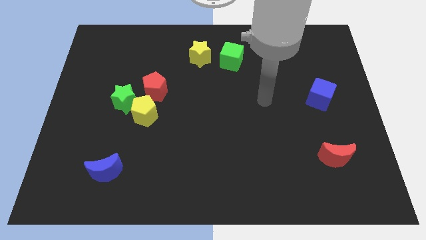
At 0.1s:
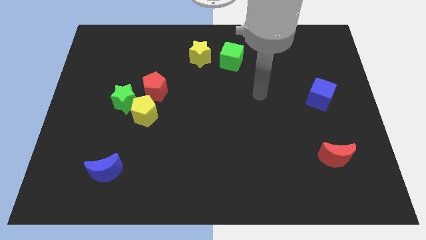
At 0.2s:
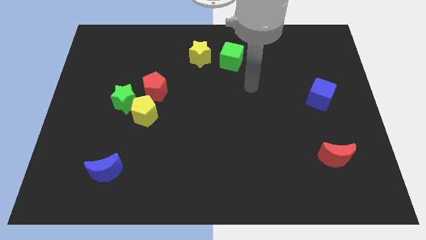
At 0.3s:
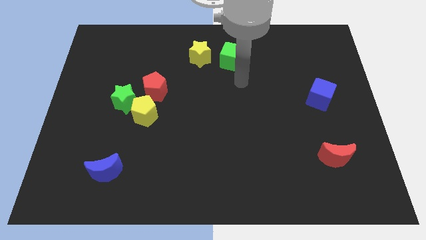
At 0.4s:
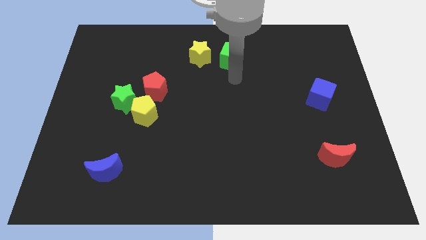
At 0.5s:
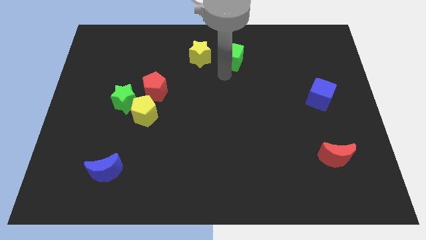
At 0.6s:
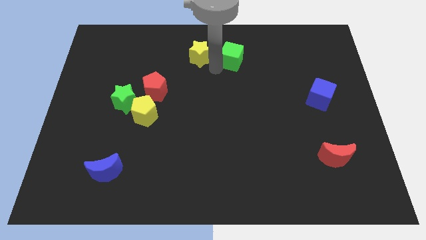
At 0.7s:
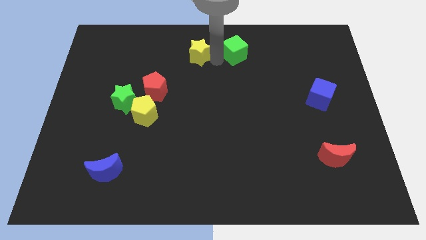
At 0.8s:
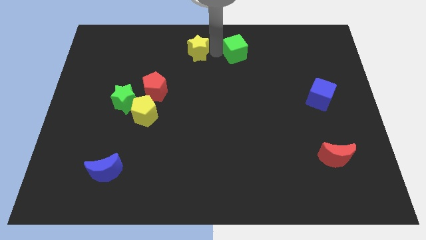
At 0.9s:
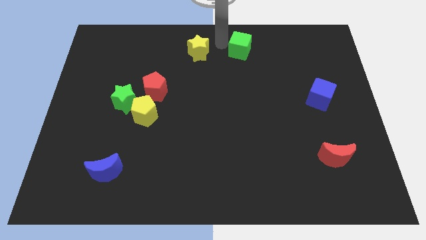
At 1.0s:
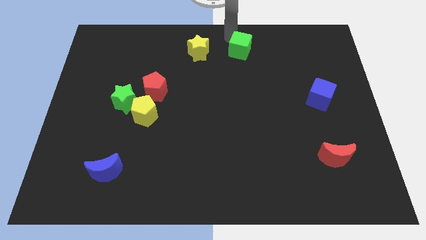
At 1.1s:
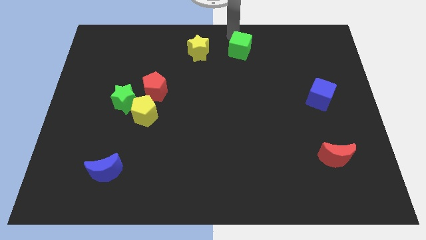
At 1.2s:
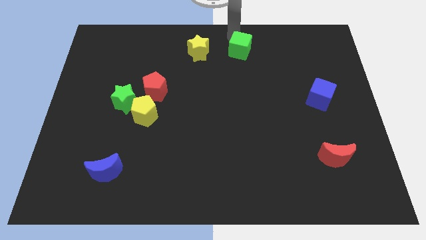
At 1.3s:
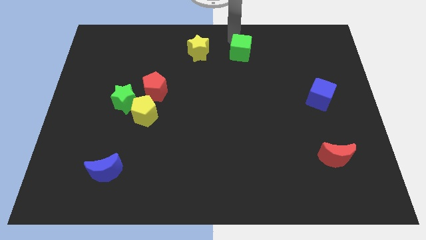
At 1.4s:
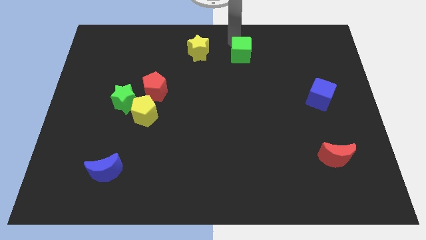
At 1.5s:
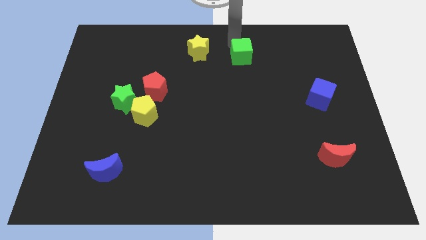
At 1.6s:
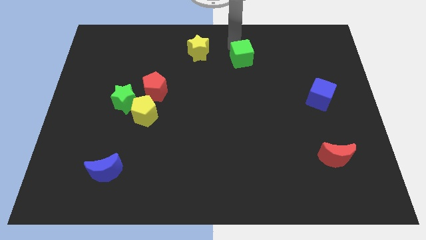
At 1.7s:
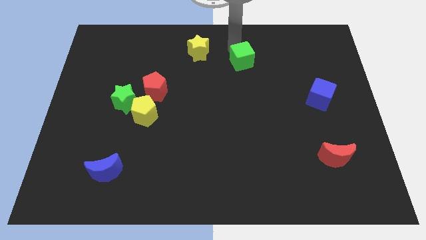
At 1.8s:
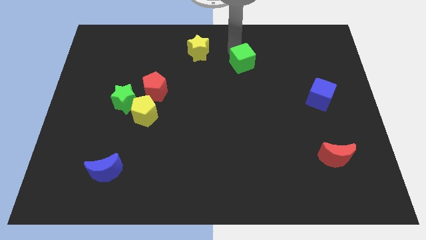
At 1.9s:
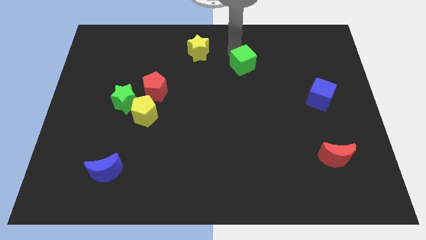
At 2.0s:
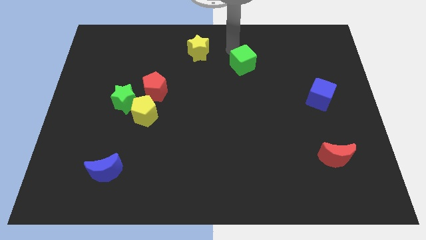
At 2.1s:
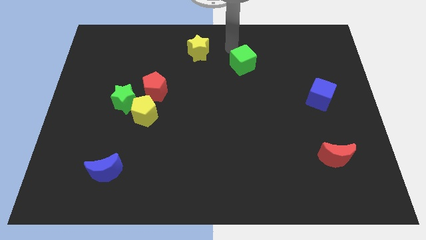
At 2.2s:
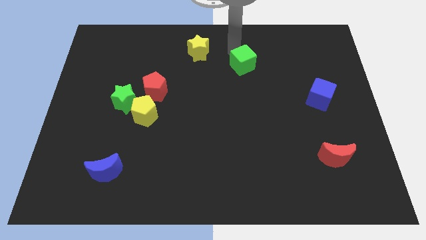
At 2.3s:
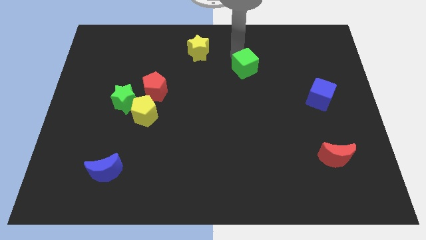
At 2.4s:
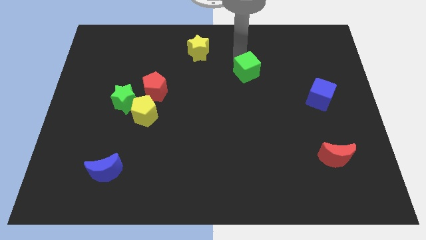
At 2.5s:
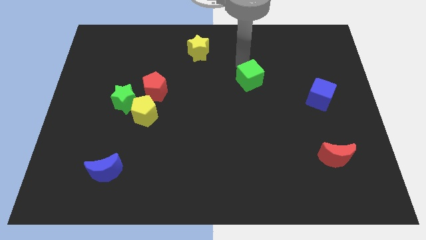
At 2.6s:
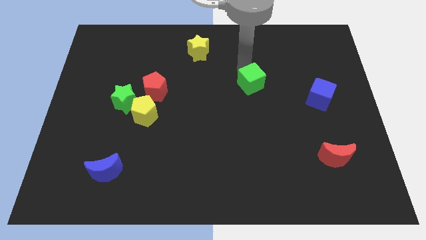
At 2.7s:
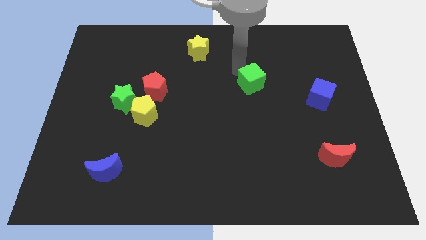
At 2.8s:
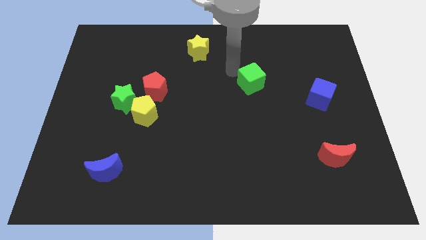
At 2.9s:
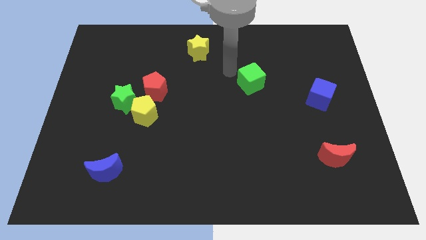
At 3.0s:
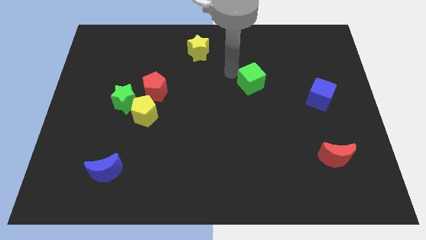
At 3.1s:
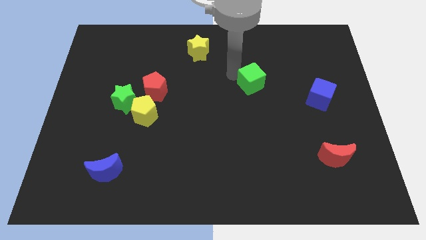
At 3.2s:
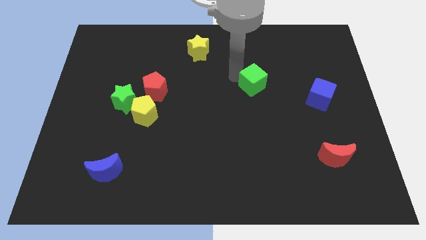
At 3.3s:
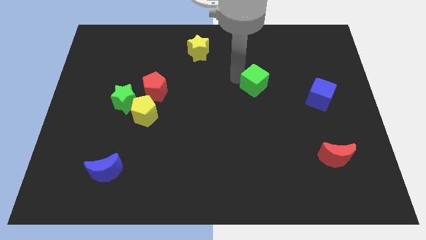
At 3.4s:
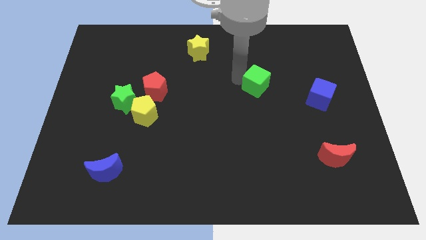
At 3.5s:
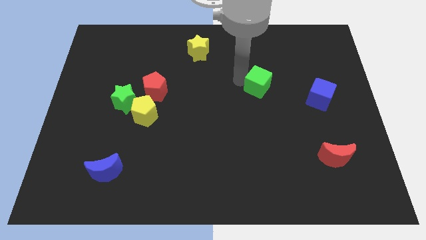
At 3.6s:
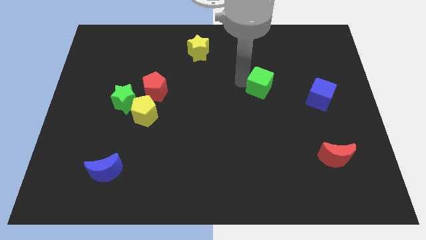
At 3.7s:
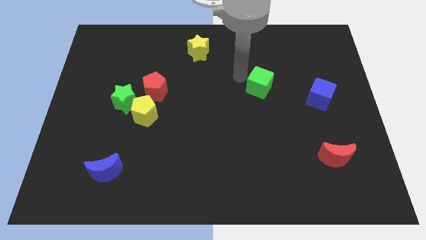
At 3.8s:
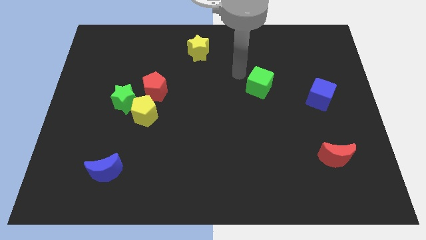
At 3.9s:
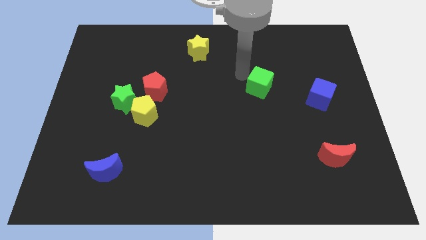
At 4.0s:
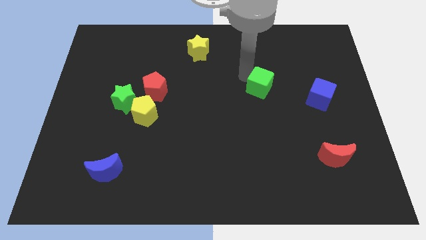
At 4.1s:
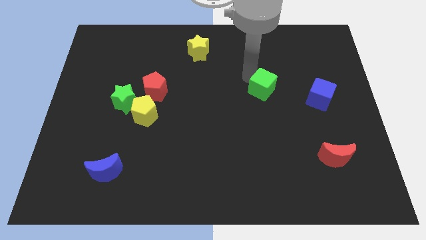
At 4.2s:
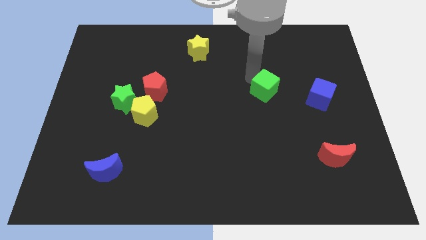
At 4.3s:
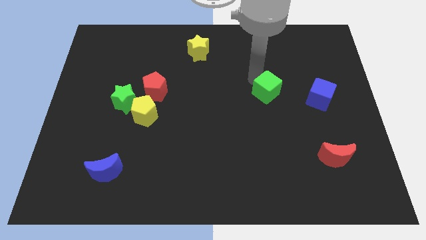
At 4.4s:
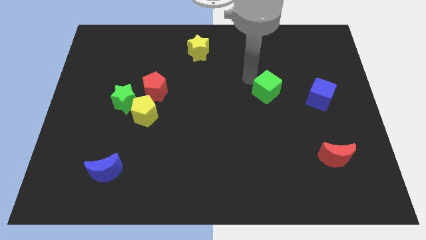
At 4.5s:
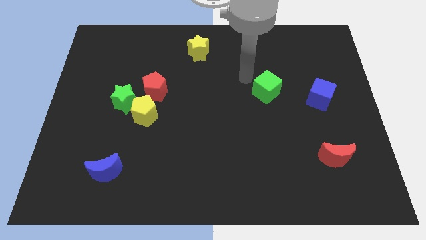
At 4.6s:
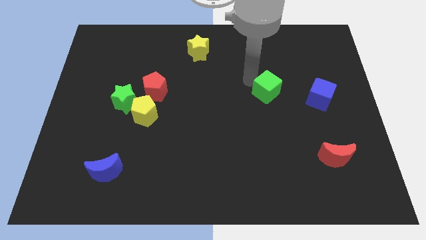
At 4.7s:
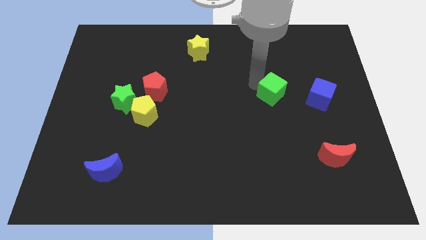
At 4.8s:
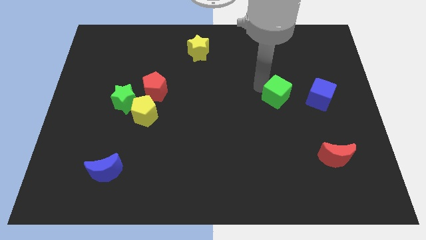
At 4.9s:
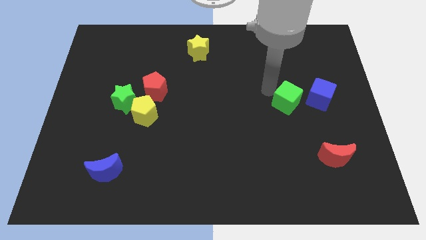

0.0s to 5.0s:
put the green cube diagonally down and to the left of the blue cube

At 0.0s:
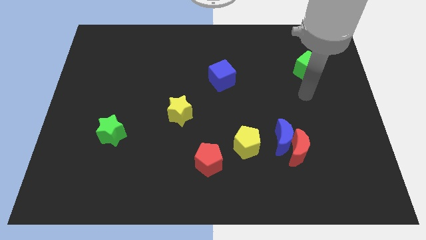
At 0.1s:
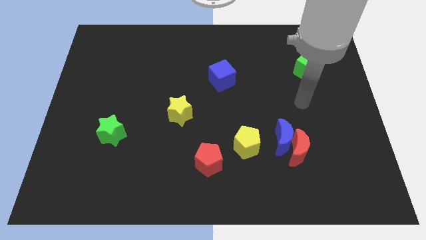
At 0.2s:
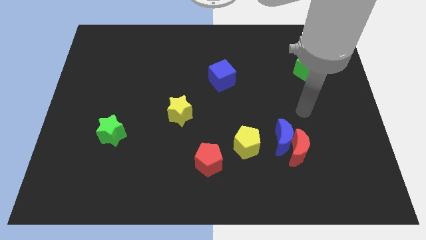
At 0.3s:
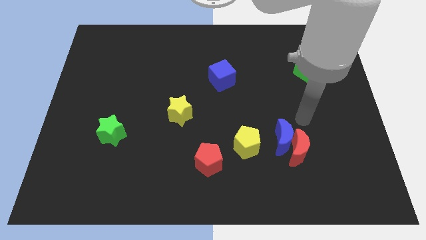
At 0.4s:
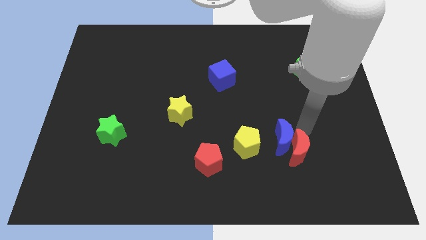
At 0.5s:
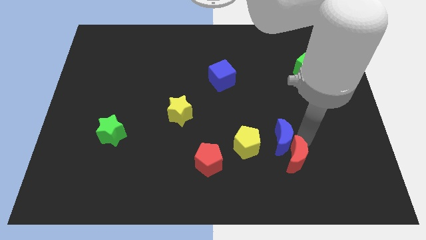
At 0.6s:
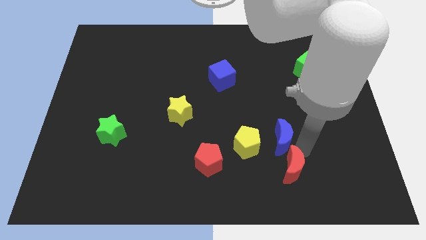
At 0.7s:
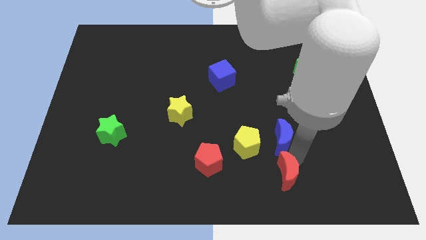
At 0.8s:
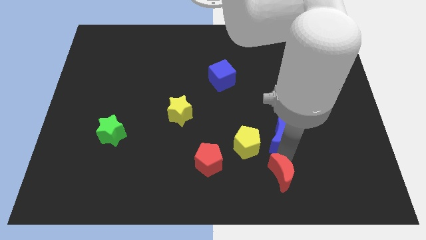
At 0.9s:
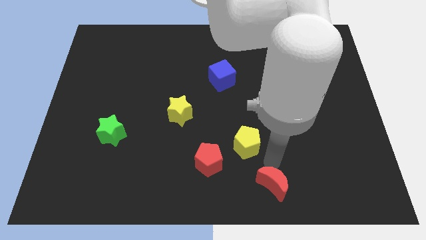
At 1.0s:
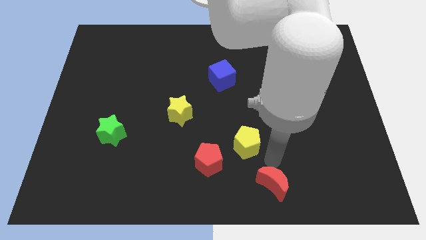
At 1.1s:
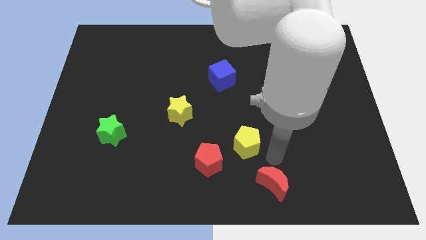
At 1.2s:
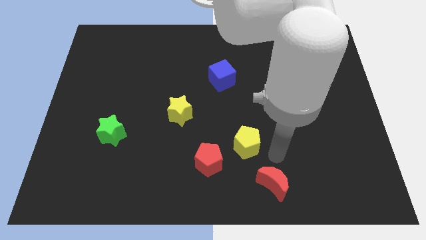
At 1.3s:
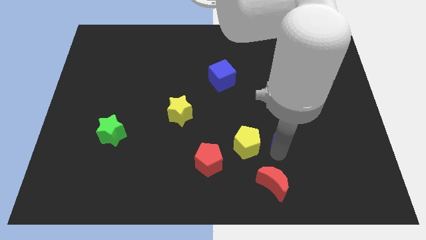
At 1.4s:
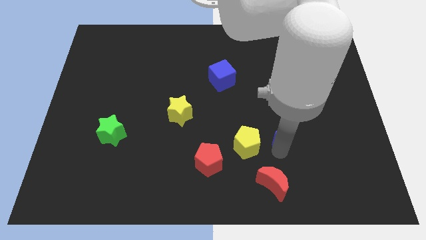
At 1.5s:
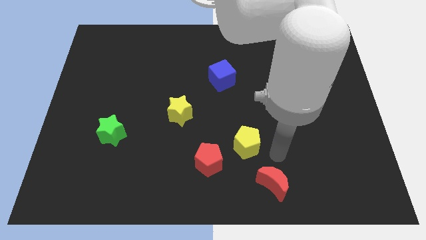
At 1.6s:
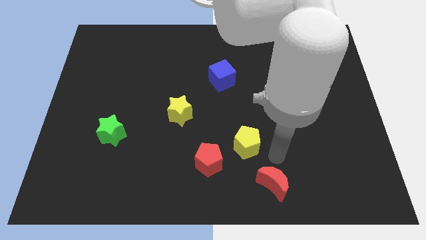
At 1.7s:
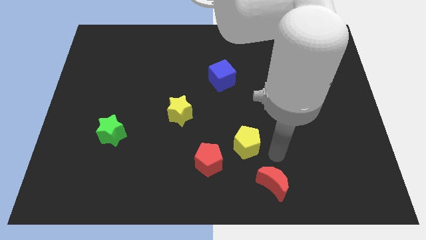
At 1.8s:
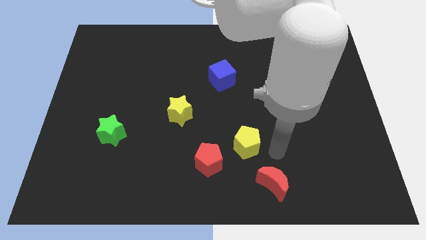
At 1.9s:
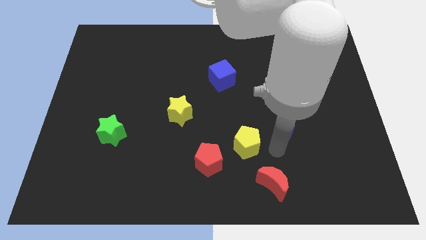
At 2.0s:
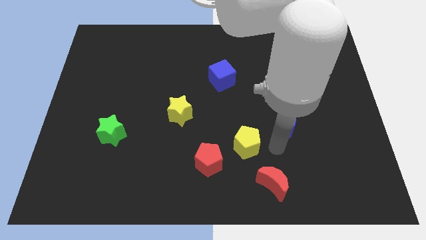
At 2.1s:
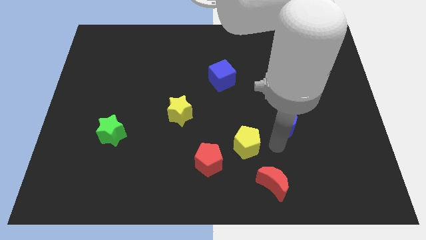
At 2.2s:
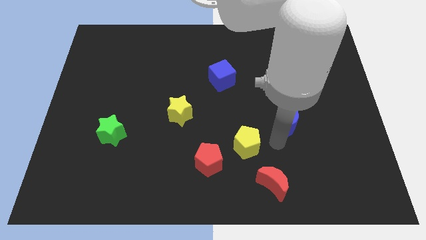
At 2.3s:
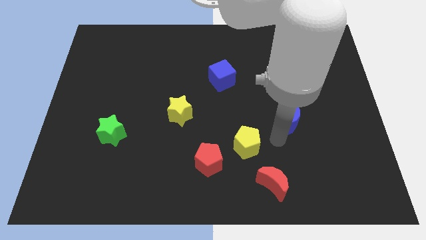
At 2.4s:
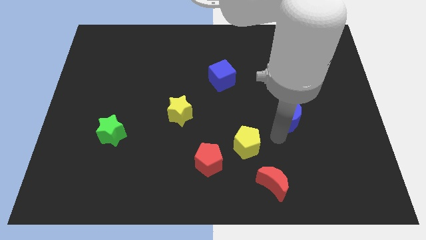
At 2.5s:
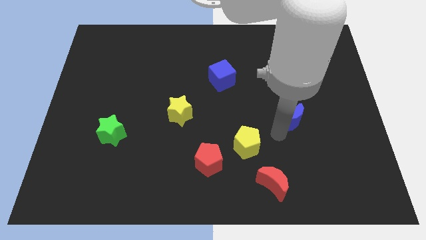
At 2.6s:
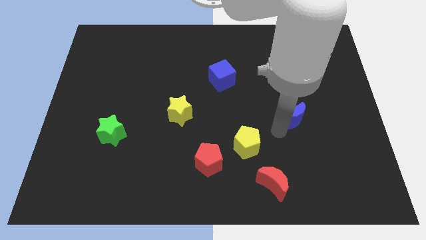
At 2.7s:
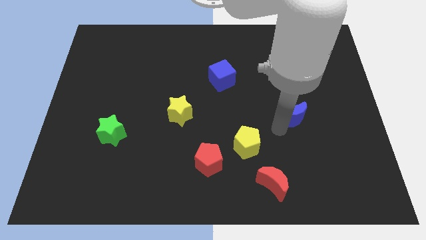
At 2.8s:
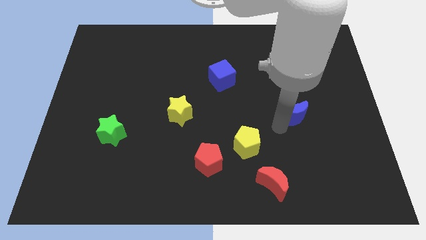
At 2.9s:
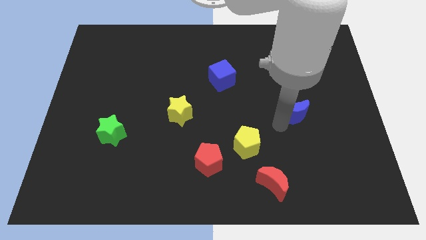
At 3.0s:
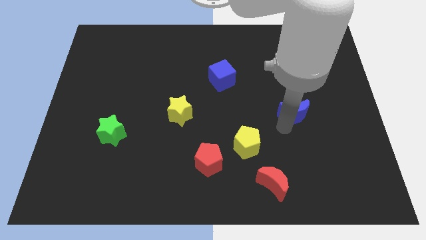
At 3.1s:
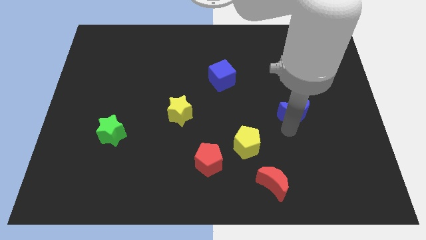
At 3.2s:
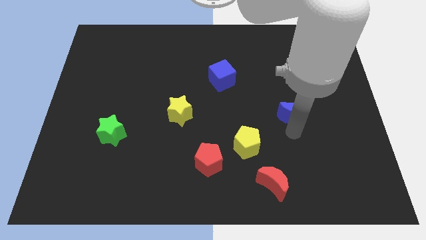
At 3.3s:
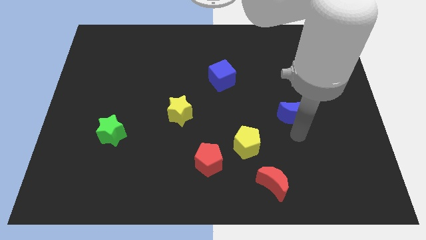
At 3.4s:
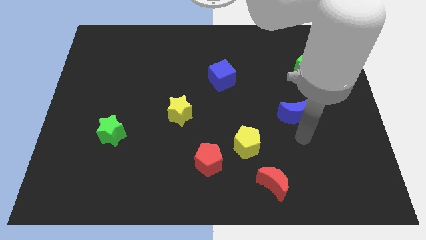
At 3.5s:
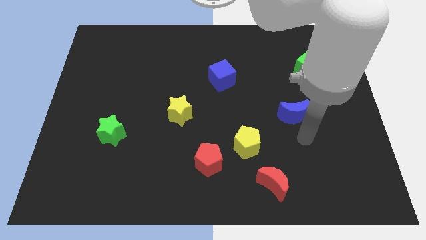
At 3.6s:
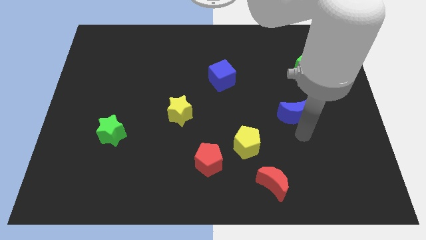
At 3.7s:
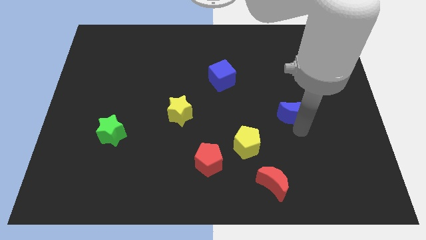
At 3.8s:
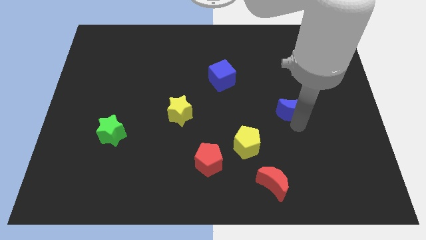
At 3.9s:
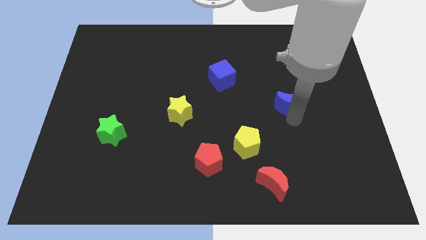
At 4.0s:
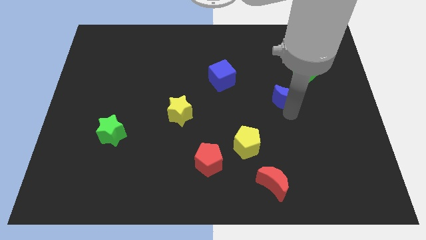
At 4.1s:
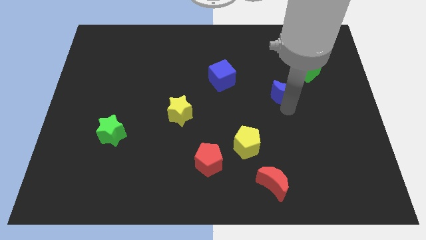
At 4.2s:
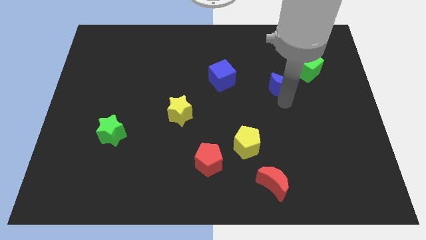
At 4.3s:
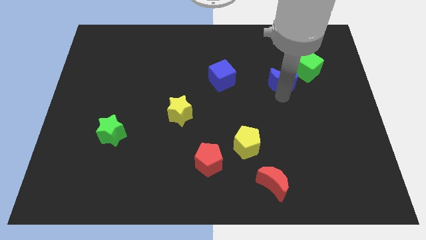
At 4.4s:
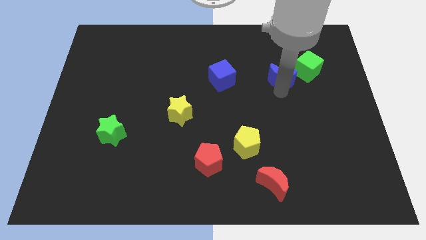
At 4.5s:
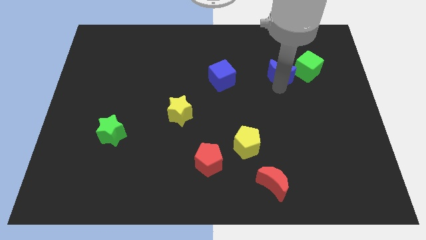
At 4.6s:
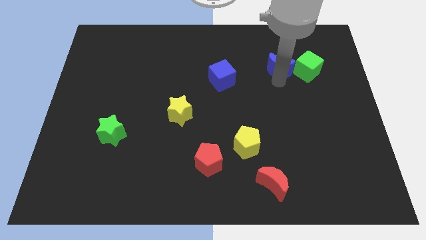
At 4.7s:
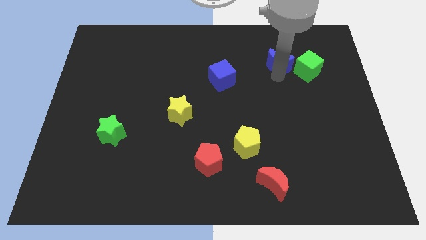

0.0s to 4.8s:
move the blue moon to the top left of the green cube
